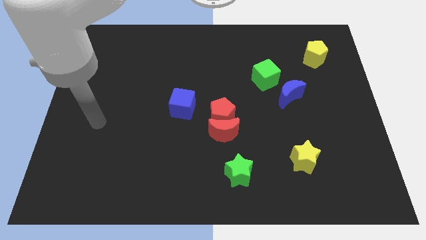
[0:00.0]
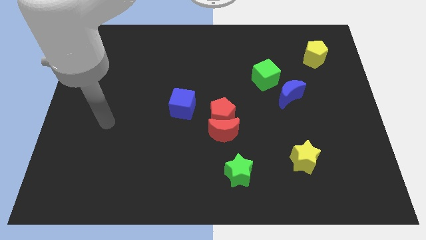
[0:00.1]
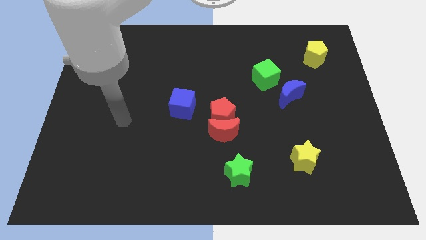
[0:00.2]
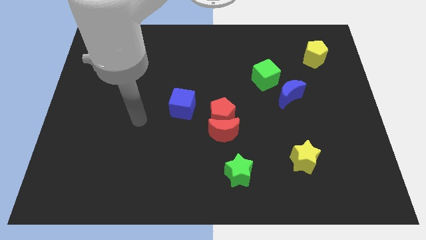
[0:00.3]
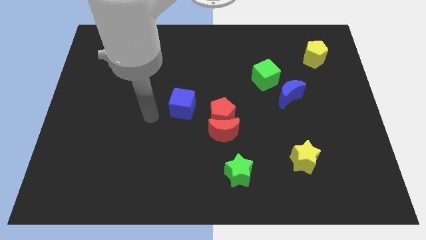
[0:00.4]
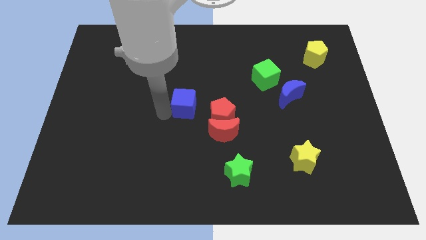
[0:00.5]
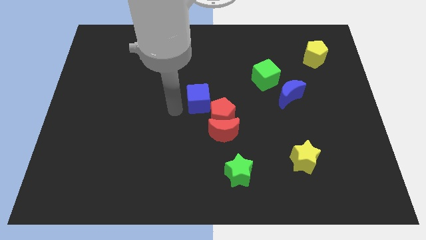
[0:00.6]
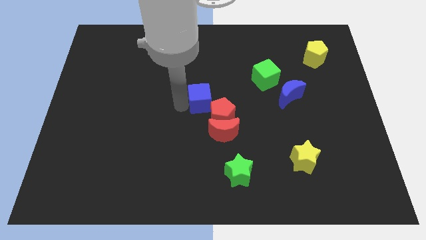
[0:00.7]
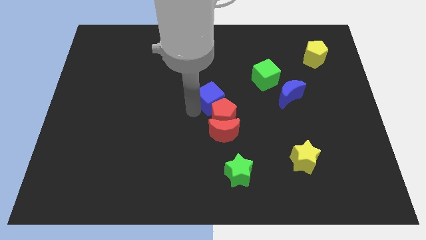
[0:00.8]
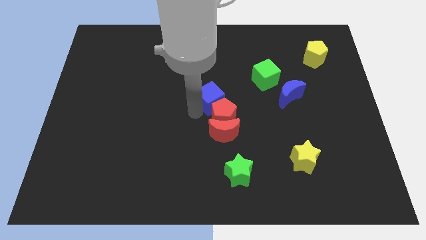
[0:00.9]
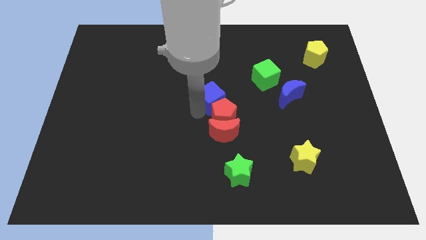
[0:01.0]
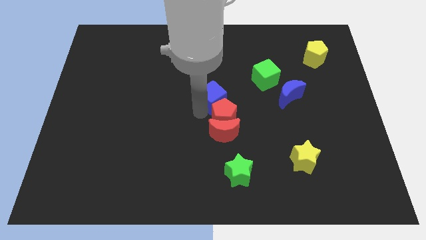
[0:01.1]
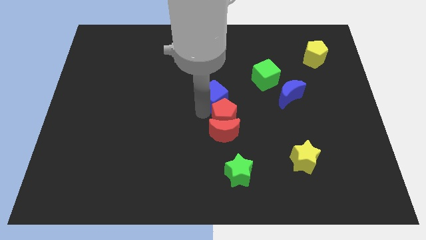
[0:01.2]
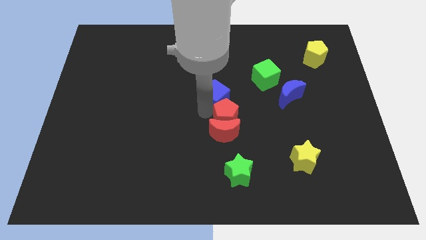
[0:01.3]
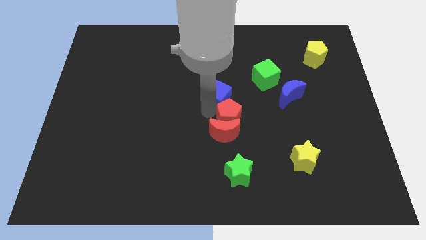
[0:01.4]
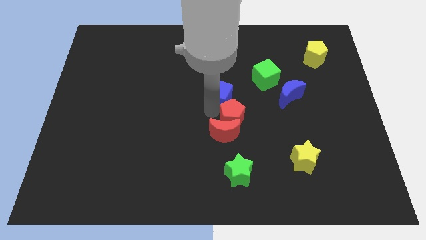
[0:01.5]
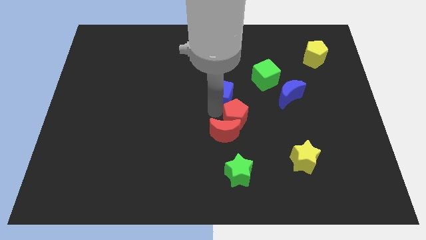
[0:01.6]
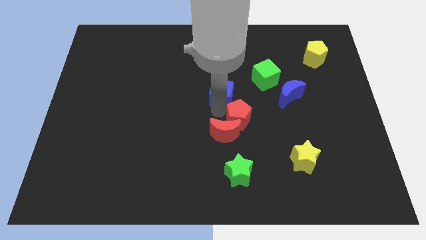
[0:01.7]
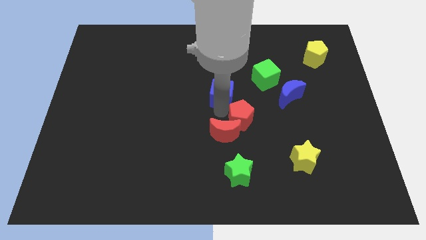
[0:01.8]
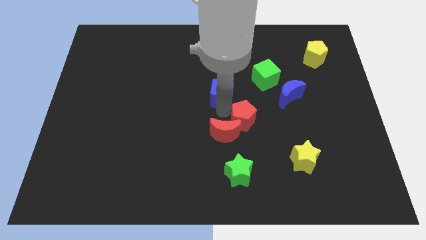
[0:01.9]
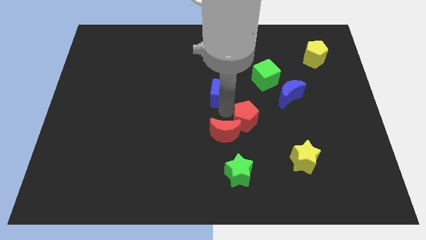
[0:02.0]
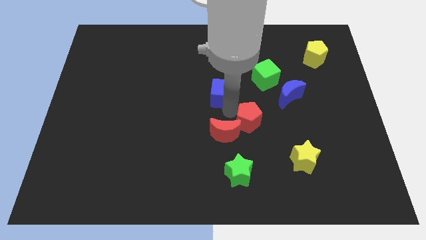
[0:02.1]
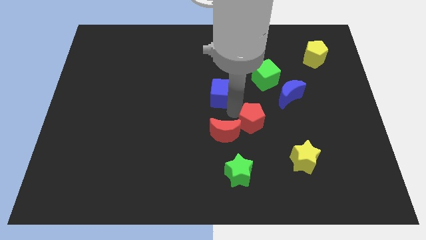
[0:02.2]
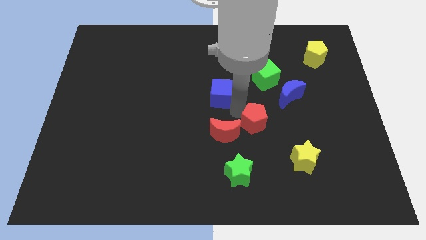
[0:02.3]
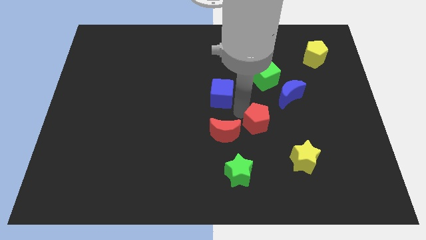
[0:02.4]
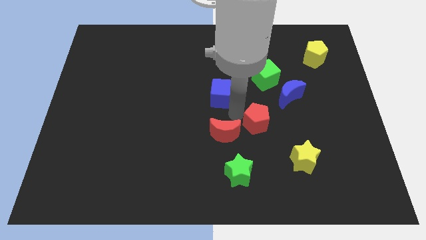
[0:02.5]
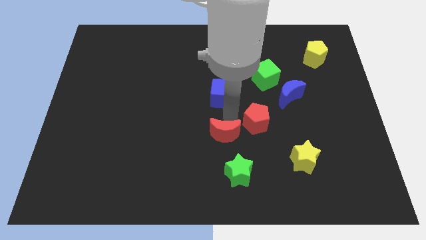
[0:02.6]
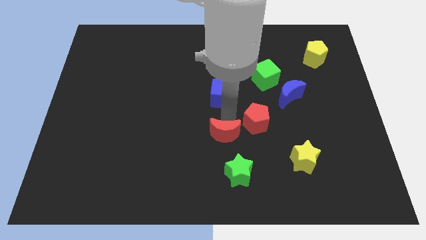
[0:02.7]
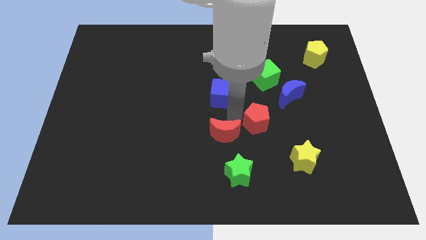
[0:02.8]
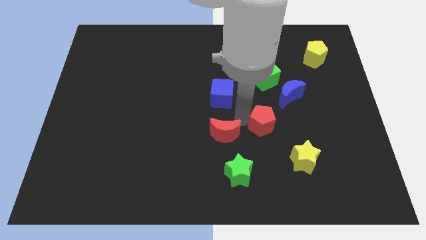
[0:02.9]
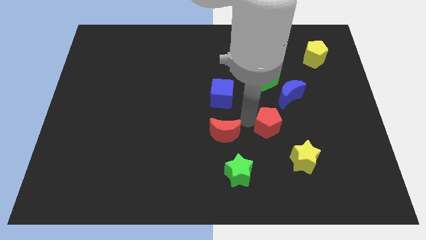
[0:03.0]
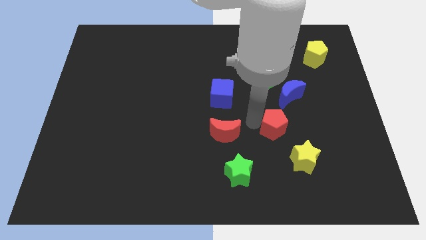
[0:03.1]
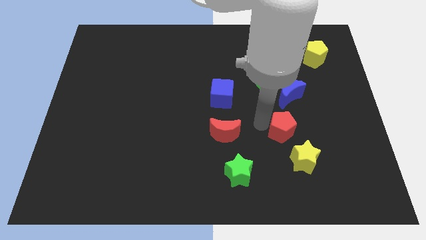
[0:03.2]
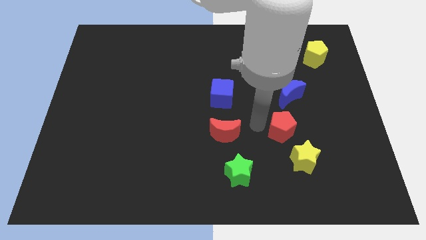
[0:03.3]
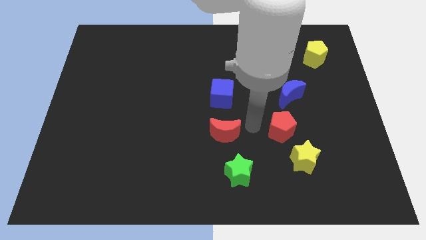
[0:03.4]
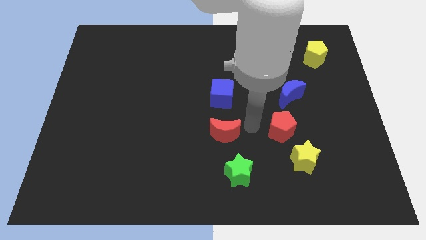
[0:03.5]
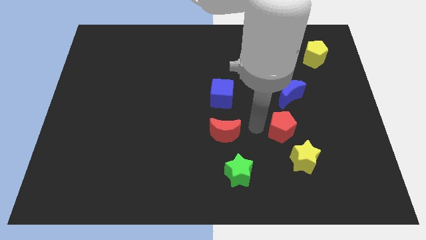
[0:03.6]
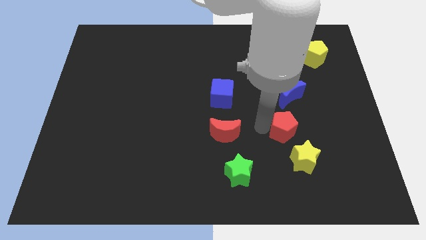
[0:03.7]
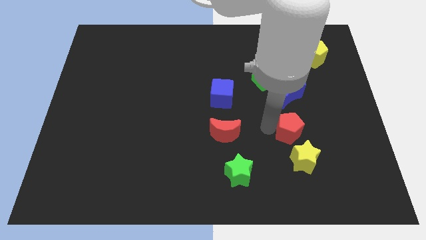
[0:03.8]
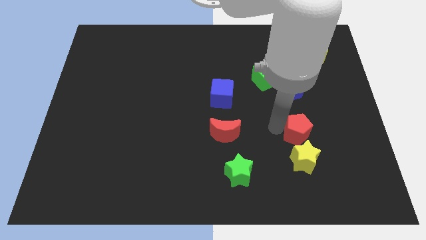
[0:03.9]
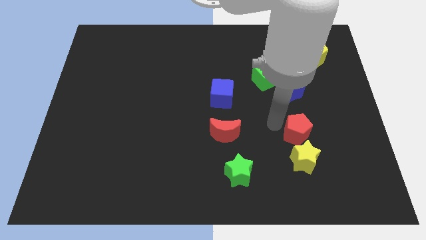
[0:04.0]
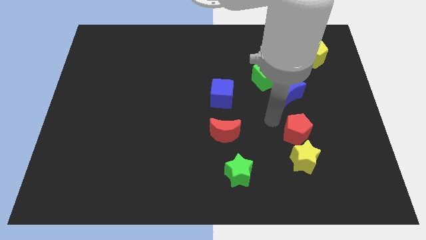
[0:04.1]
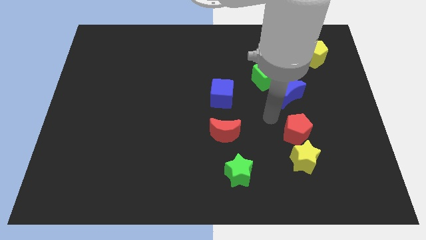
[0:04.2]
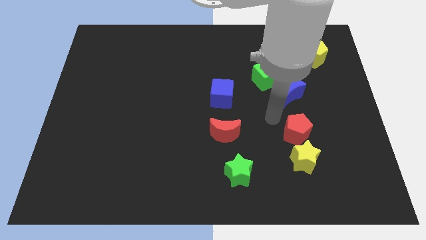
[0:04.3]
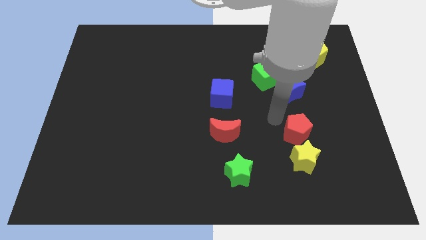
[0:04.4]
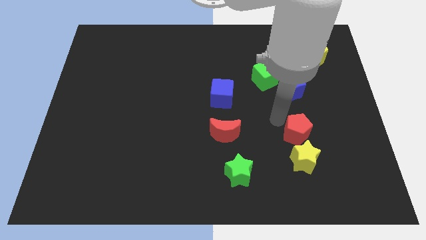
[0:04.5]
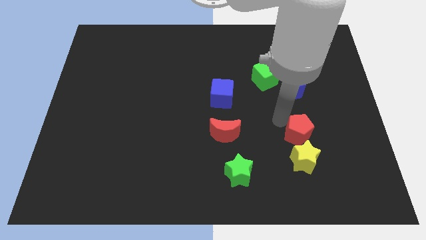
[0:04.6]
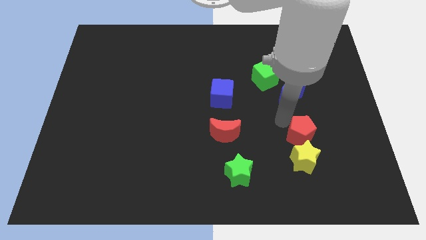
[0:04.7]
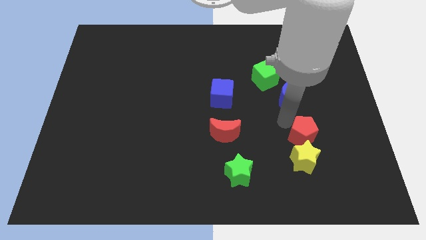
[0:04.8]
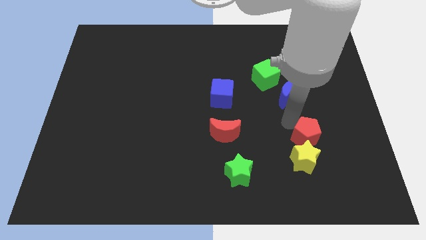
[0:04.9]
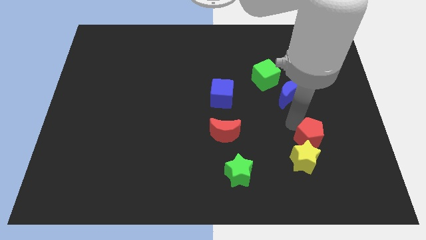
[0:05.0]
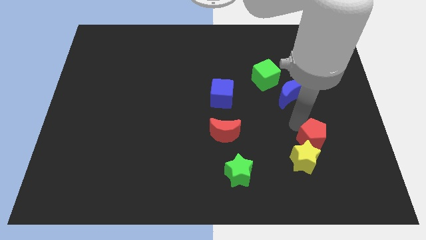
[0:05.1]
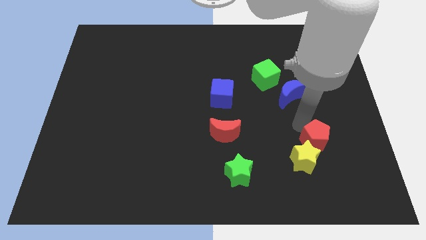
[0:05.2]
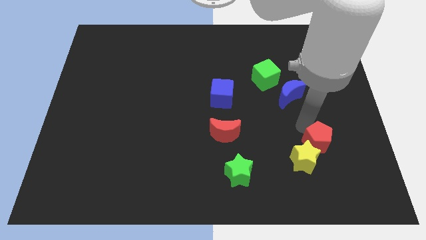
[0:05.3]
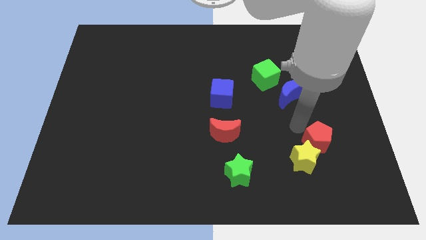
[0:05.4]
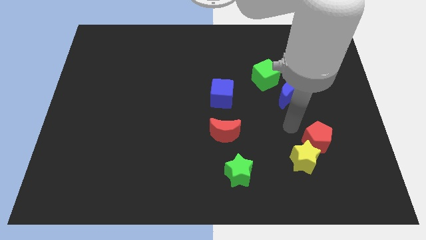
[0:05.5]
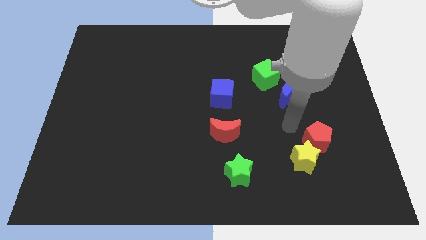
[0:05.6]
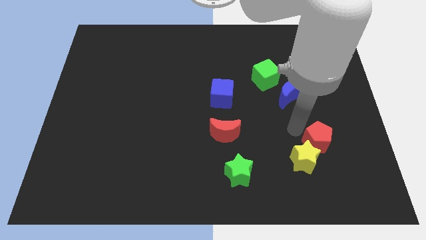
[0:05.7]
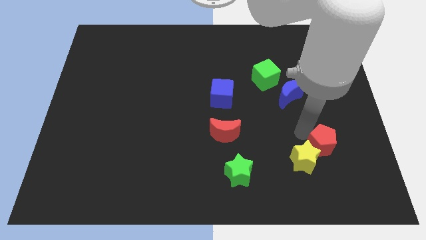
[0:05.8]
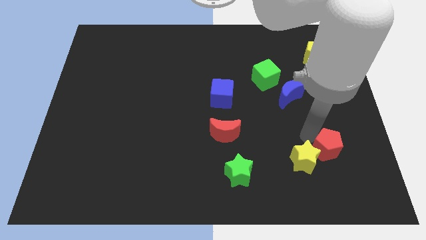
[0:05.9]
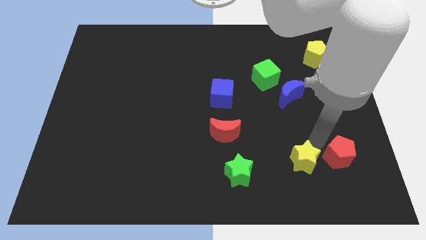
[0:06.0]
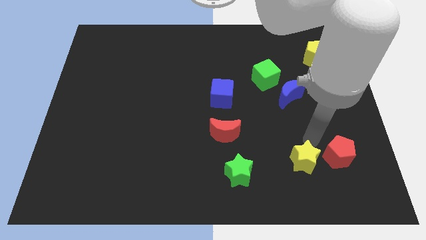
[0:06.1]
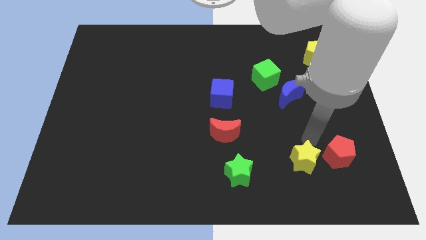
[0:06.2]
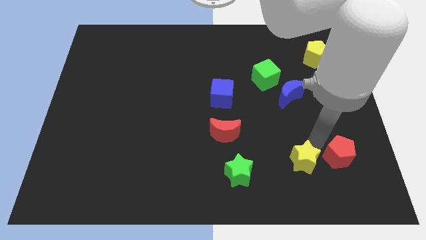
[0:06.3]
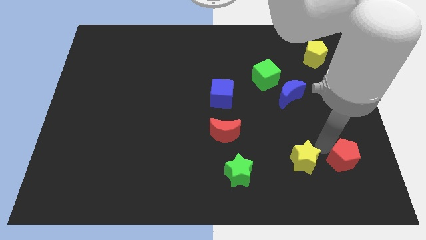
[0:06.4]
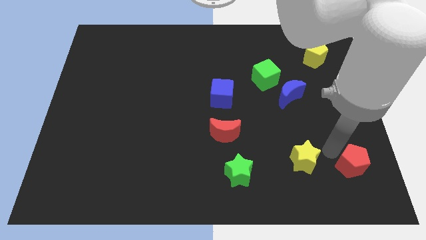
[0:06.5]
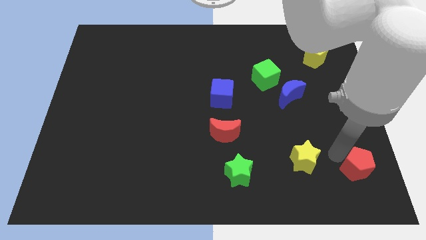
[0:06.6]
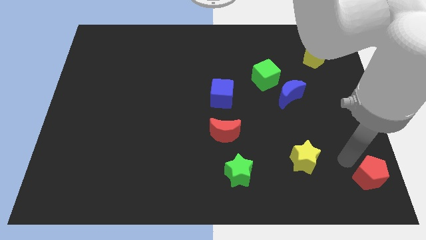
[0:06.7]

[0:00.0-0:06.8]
slide the red pentagon to the bottom right of the board
